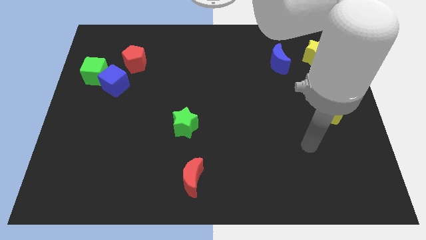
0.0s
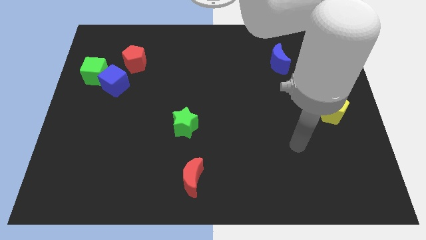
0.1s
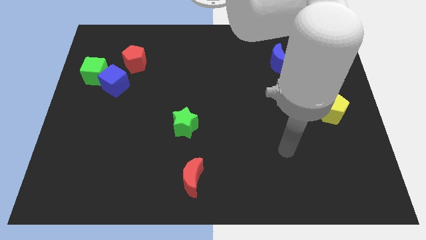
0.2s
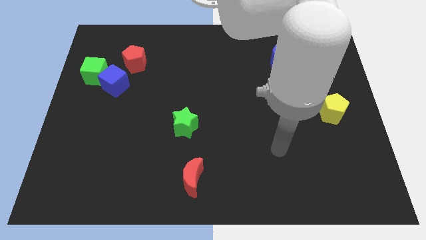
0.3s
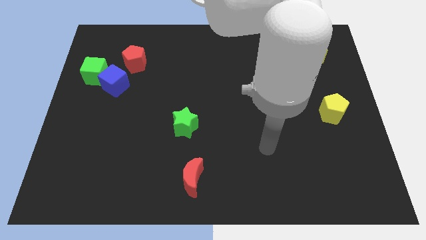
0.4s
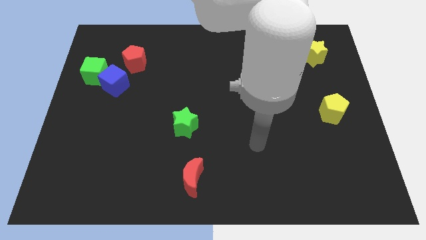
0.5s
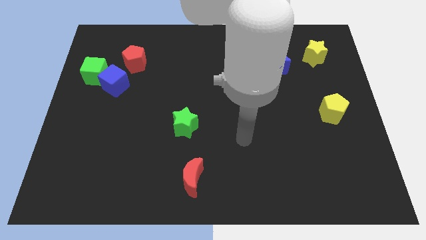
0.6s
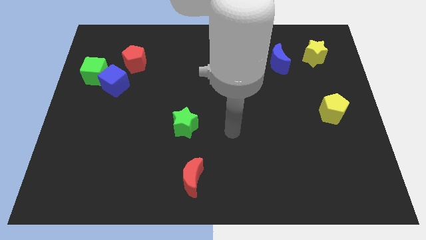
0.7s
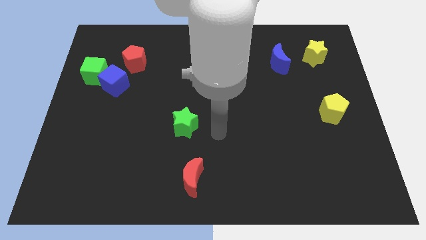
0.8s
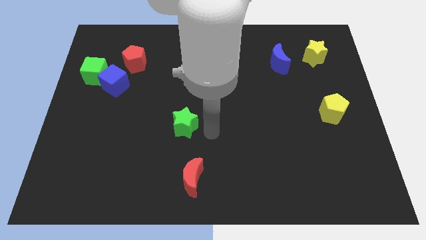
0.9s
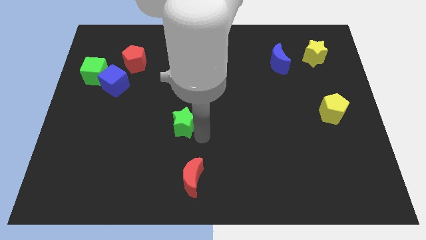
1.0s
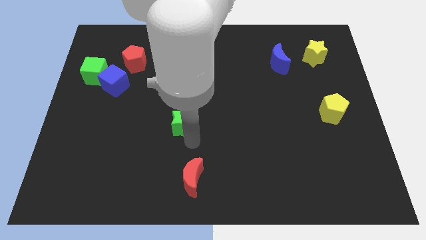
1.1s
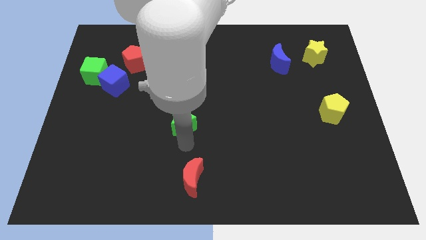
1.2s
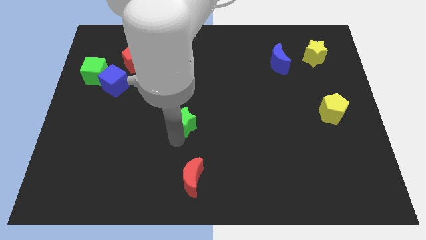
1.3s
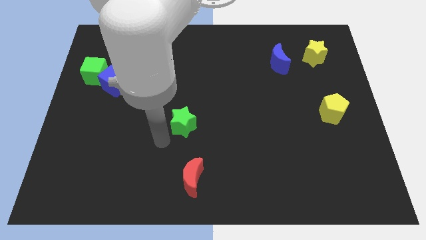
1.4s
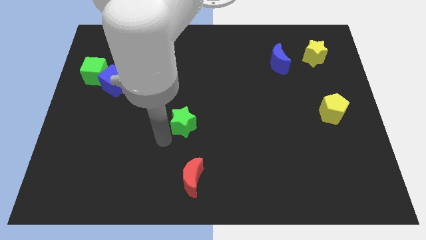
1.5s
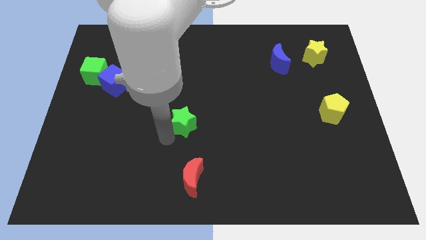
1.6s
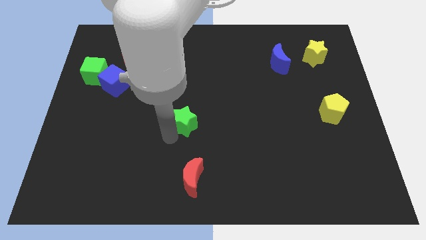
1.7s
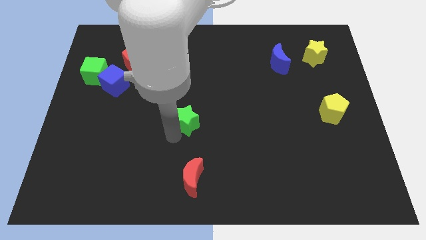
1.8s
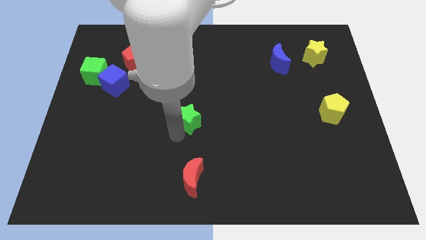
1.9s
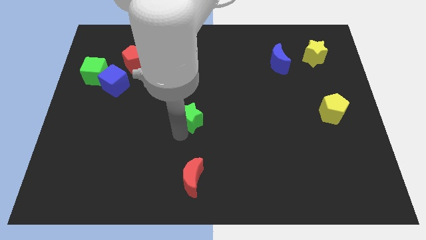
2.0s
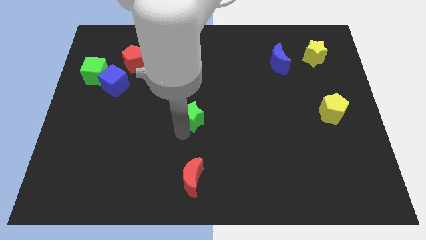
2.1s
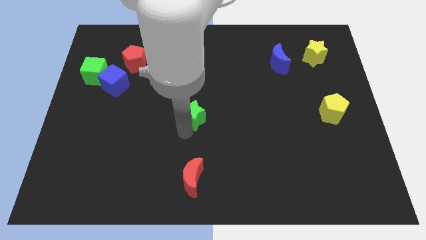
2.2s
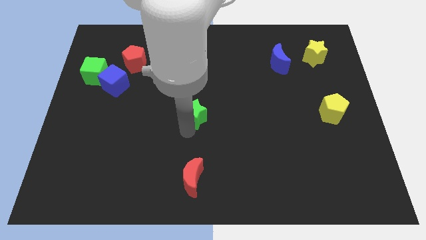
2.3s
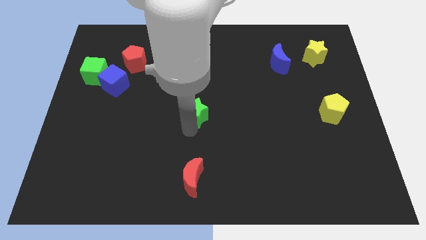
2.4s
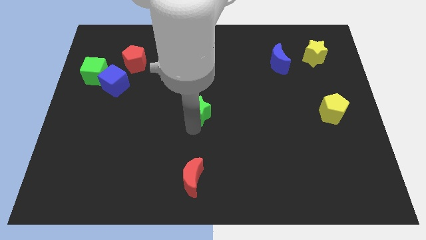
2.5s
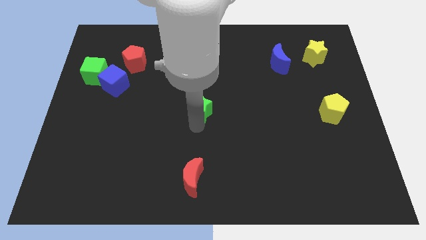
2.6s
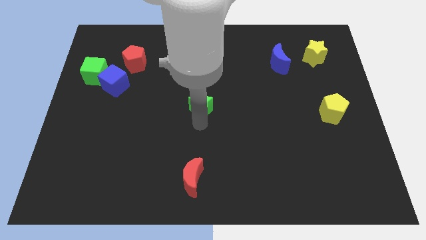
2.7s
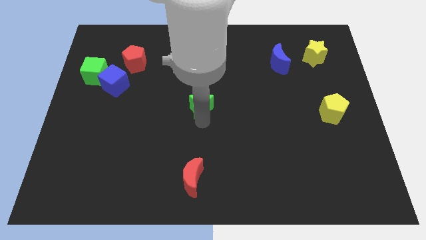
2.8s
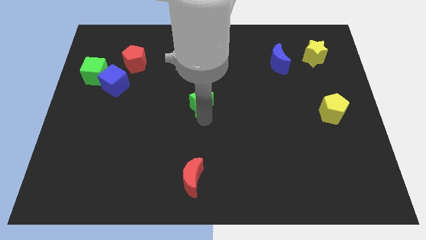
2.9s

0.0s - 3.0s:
slide the green star upwards and to the right diagonally a little

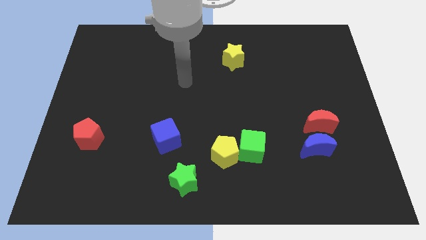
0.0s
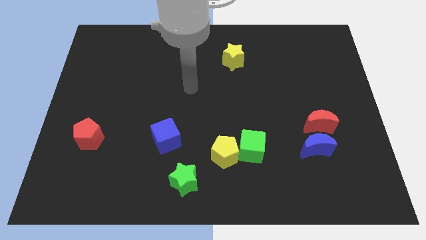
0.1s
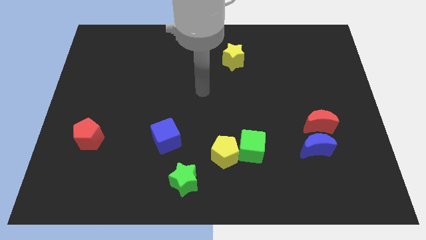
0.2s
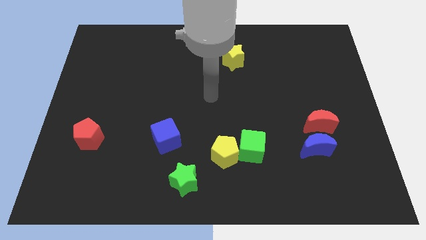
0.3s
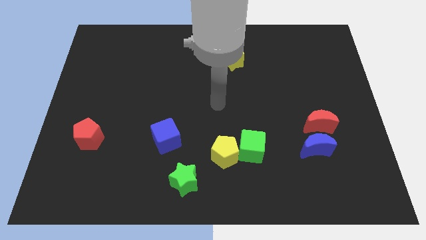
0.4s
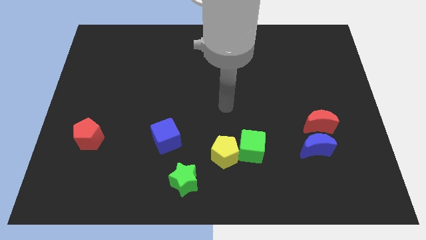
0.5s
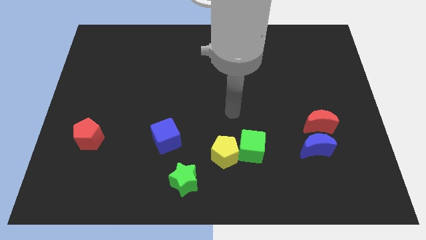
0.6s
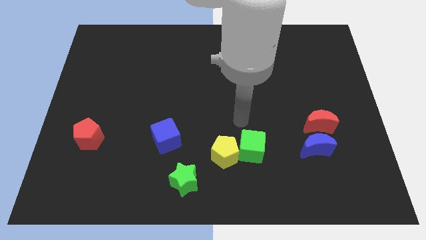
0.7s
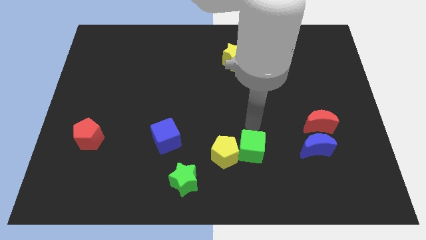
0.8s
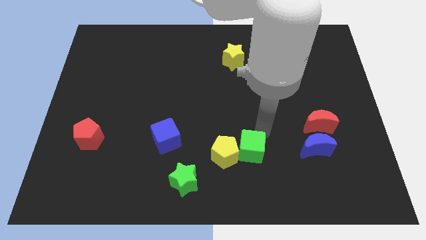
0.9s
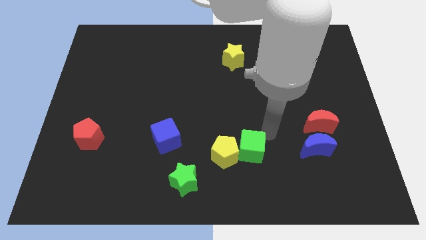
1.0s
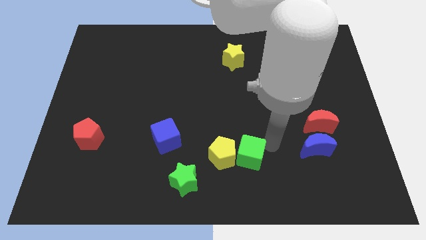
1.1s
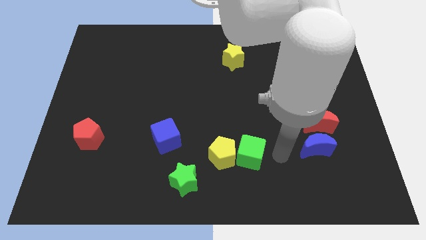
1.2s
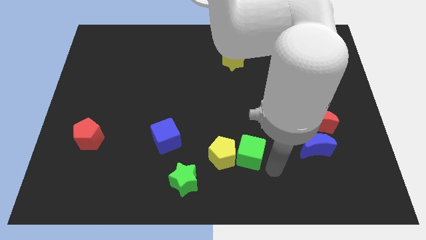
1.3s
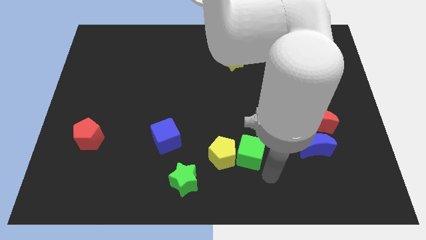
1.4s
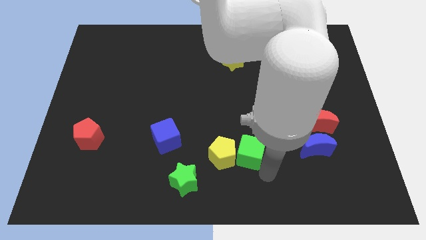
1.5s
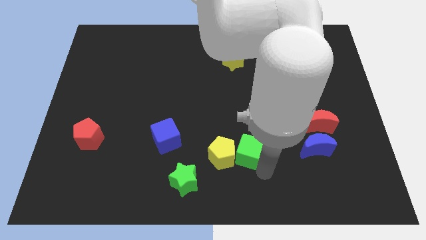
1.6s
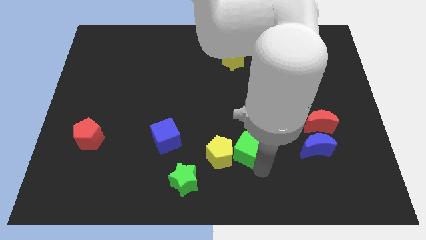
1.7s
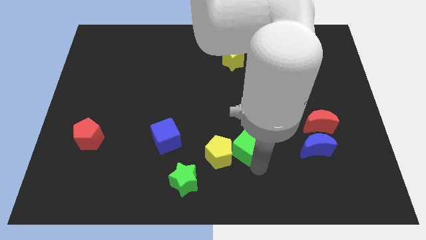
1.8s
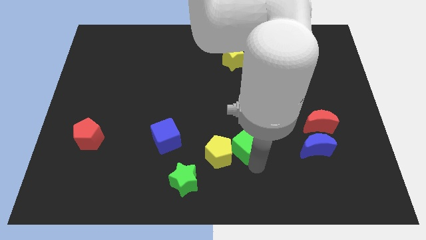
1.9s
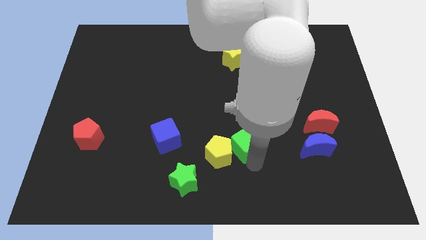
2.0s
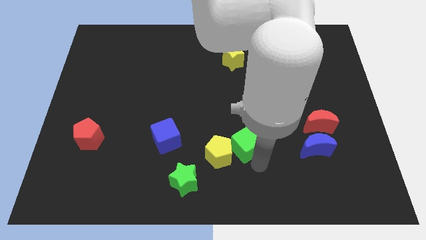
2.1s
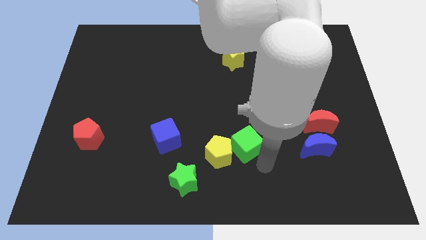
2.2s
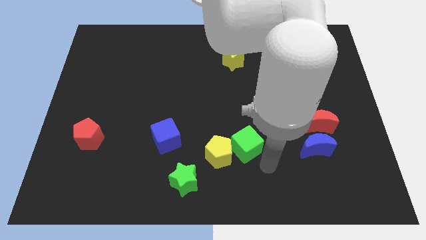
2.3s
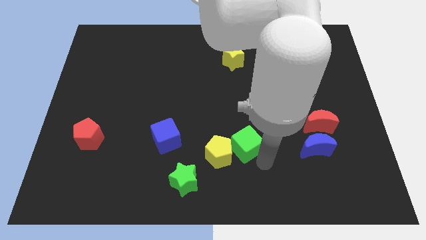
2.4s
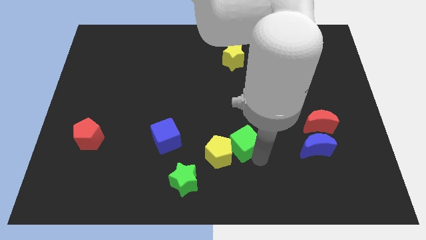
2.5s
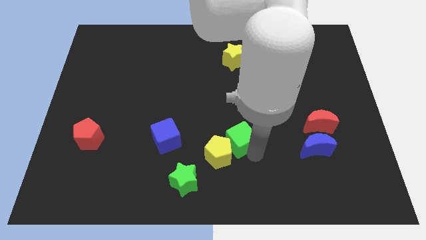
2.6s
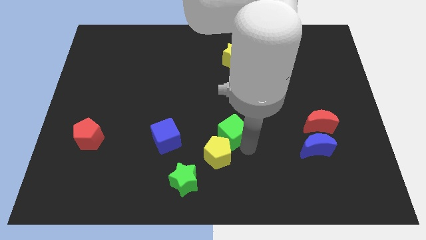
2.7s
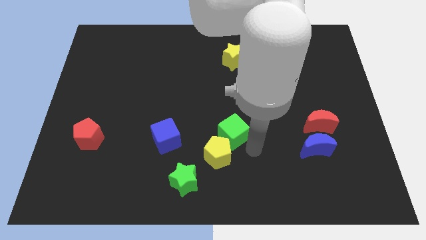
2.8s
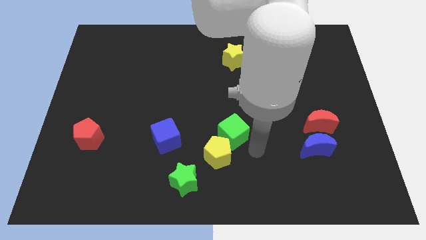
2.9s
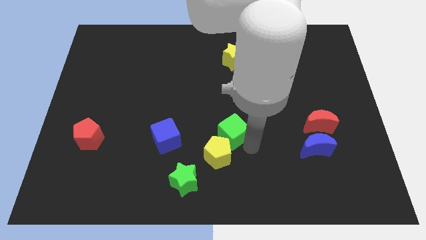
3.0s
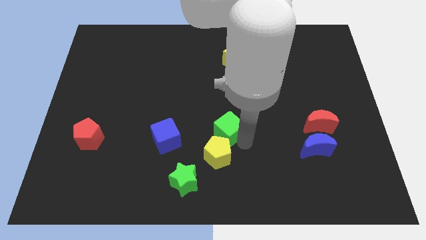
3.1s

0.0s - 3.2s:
push the green cube upwards and to the left somewhat

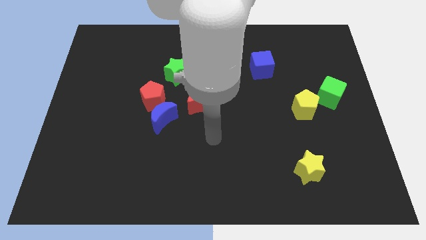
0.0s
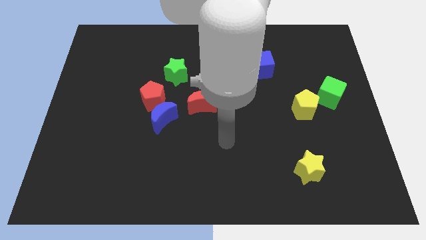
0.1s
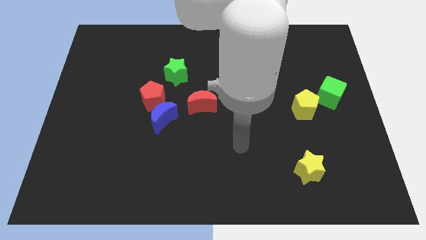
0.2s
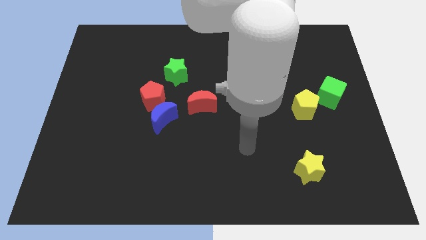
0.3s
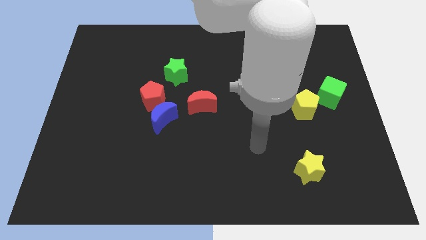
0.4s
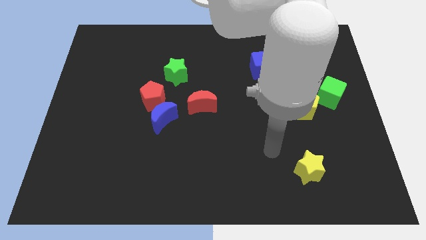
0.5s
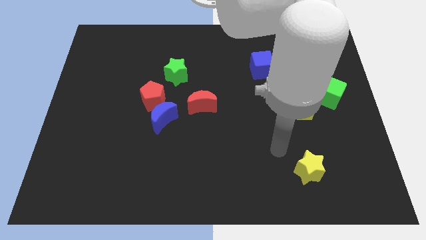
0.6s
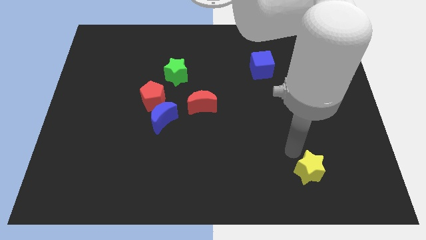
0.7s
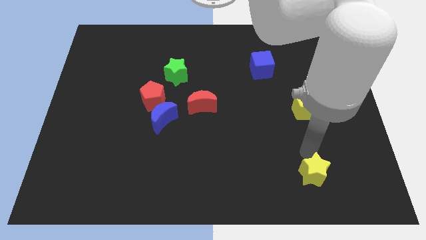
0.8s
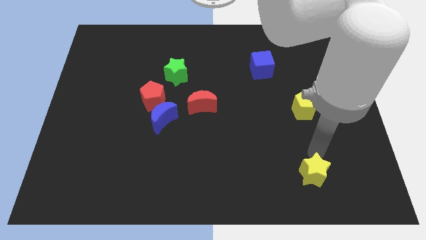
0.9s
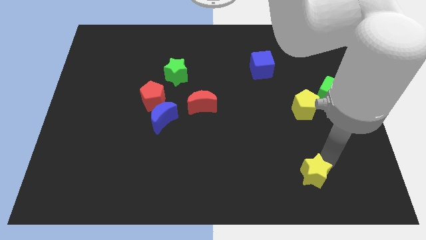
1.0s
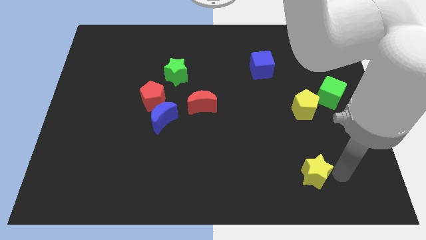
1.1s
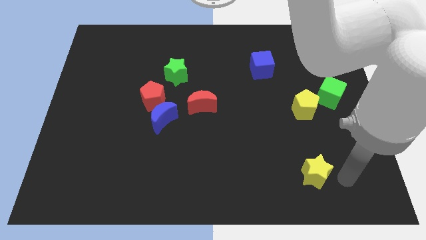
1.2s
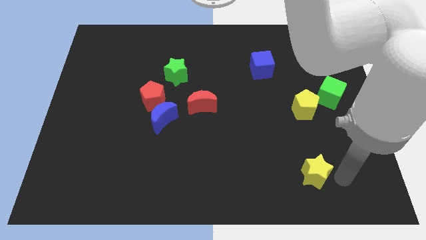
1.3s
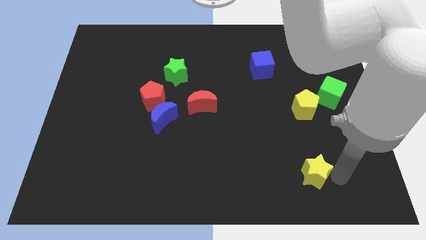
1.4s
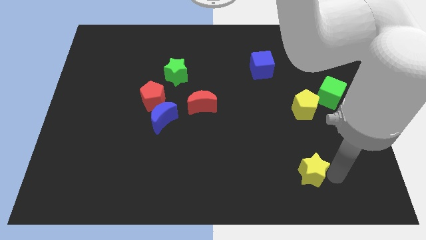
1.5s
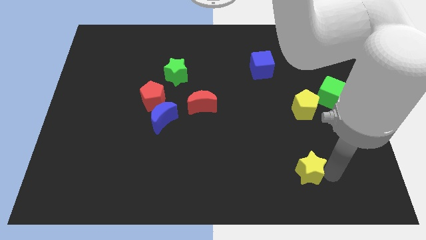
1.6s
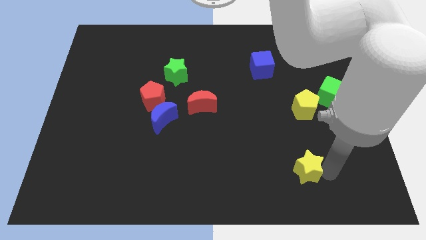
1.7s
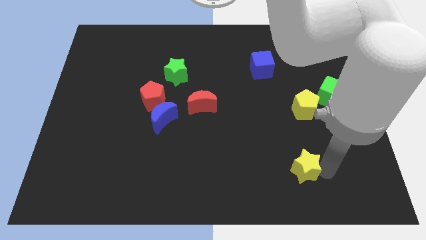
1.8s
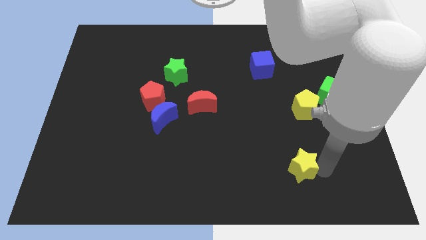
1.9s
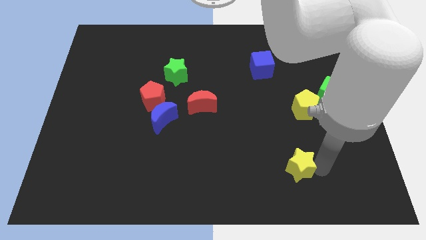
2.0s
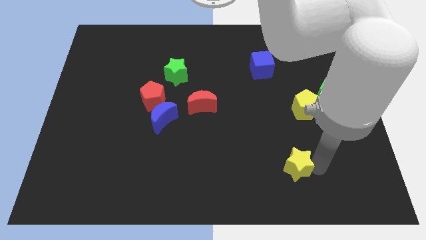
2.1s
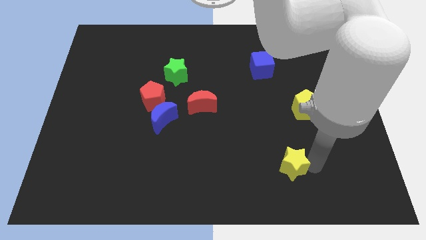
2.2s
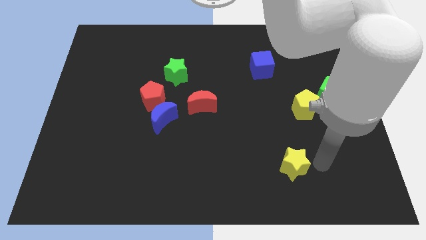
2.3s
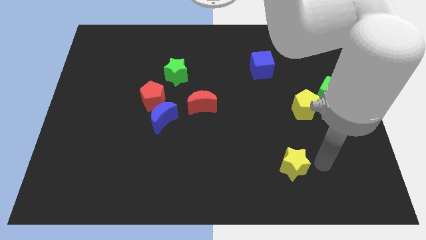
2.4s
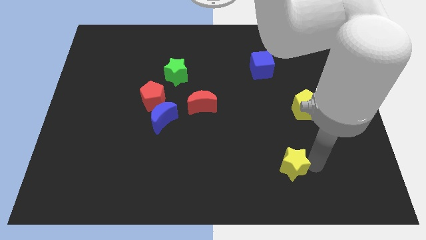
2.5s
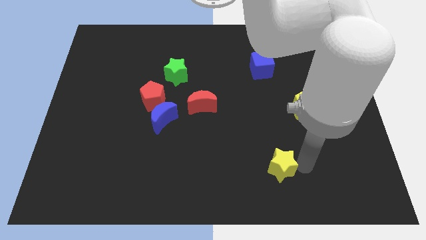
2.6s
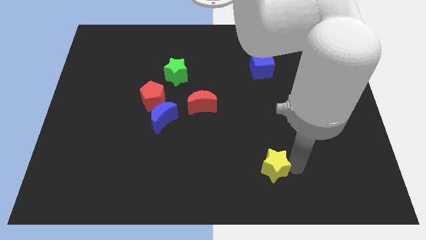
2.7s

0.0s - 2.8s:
push the yellow star a little to the left
